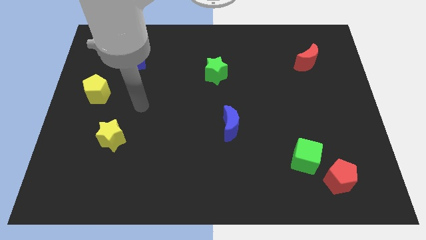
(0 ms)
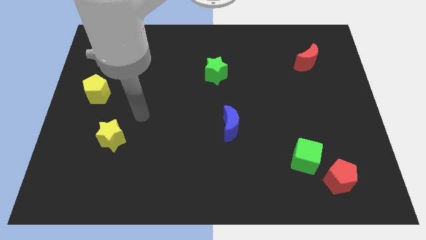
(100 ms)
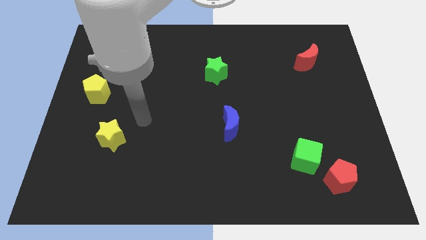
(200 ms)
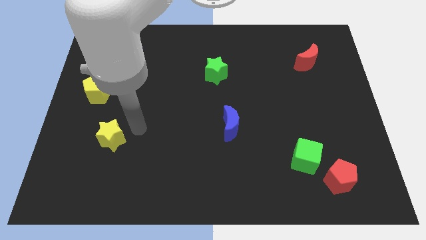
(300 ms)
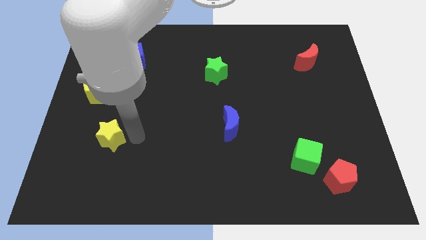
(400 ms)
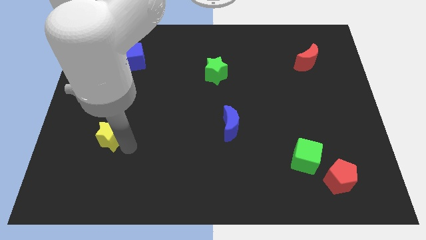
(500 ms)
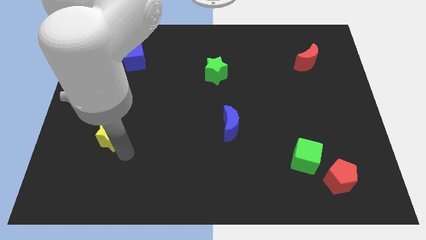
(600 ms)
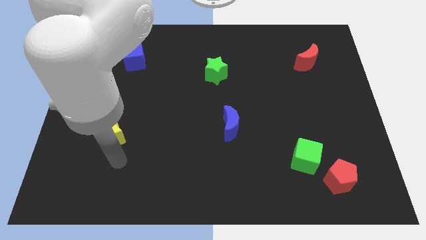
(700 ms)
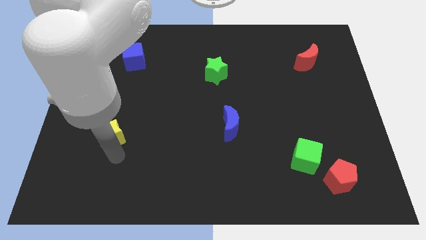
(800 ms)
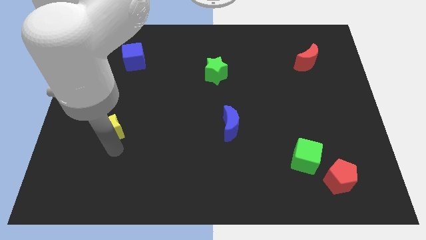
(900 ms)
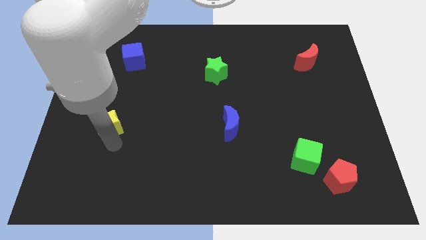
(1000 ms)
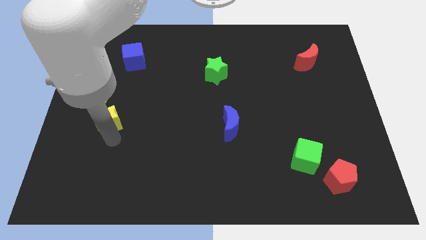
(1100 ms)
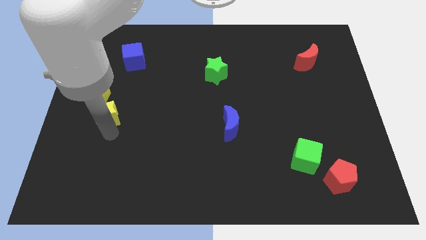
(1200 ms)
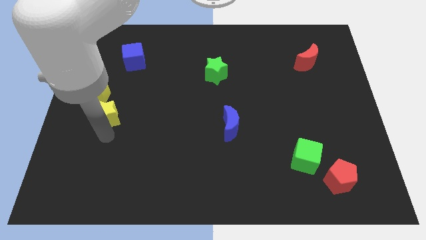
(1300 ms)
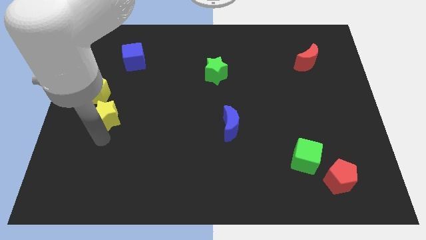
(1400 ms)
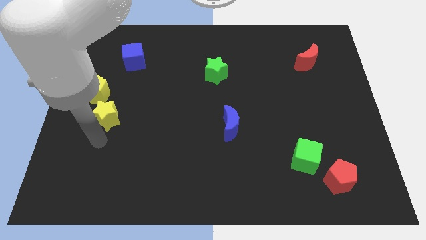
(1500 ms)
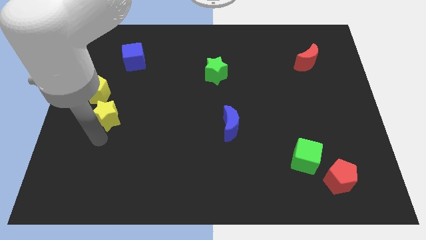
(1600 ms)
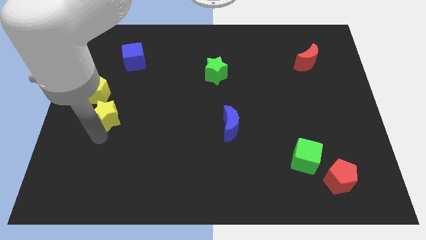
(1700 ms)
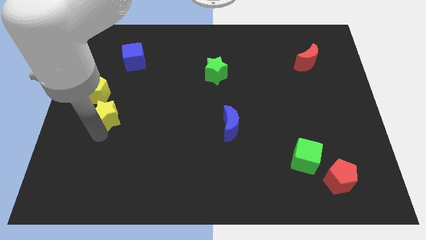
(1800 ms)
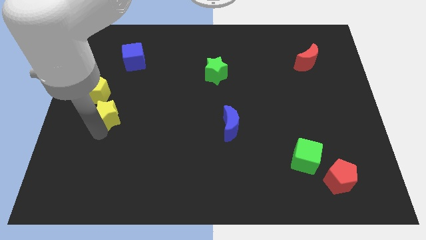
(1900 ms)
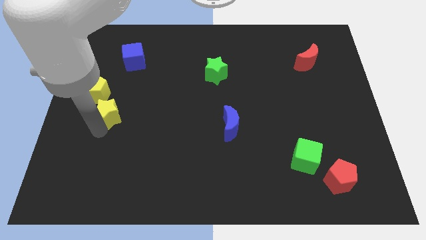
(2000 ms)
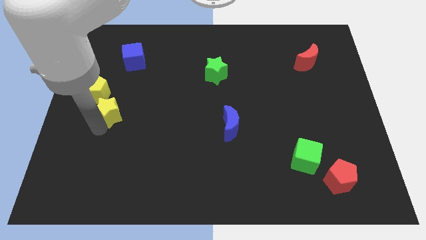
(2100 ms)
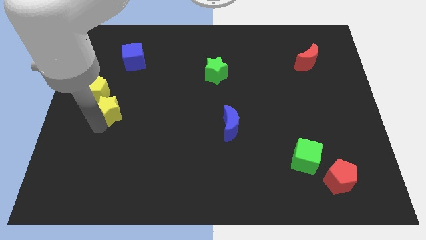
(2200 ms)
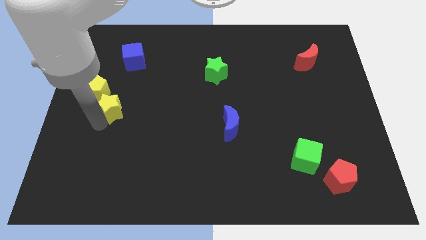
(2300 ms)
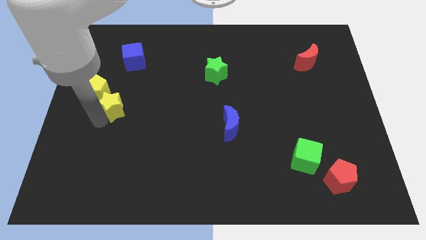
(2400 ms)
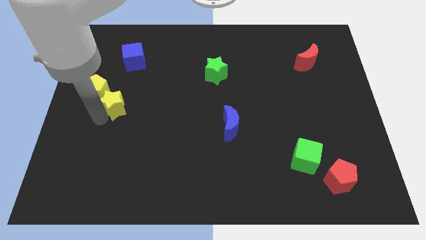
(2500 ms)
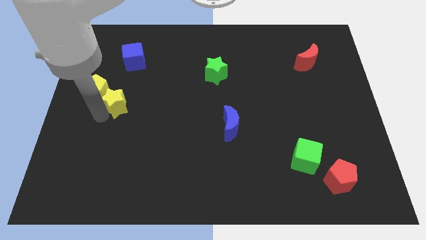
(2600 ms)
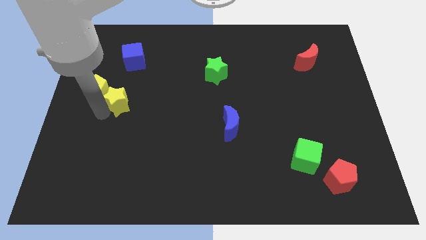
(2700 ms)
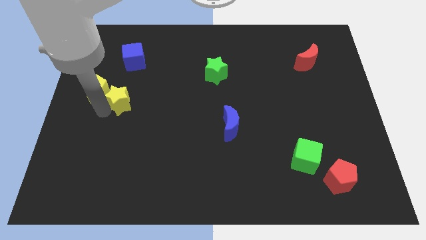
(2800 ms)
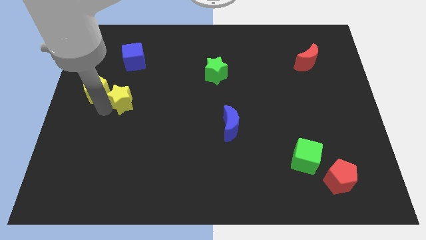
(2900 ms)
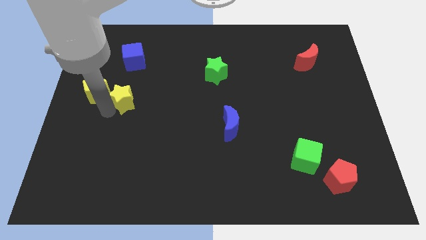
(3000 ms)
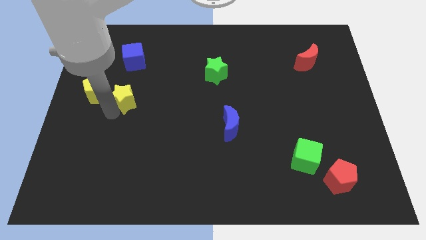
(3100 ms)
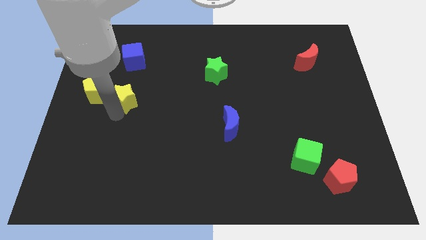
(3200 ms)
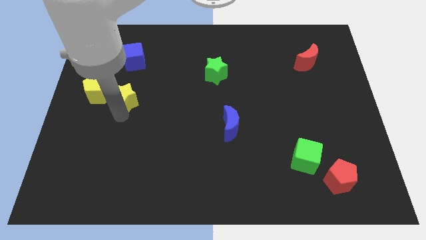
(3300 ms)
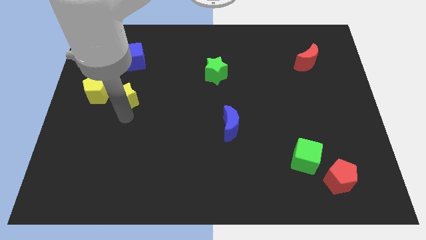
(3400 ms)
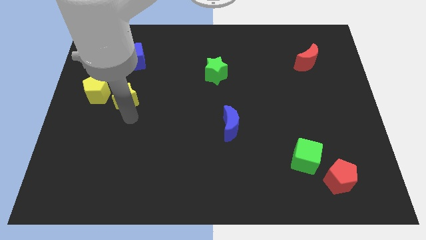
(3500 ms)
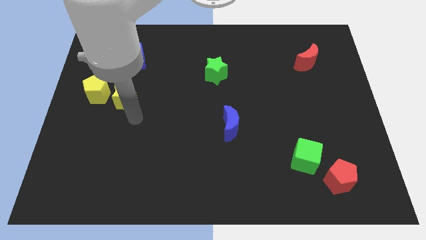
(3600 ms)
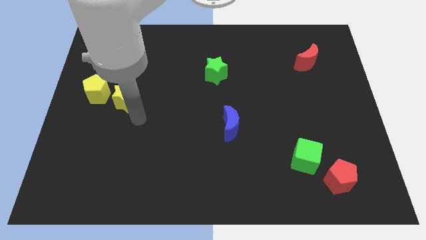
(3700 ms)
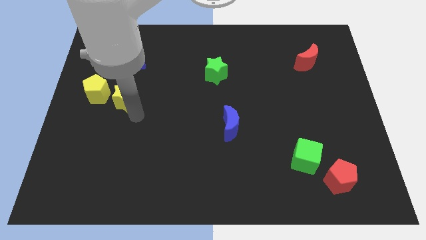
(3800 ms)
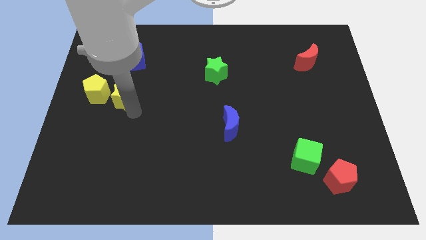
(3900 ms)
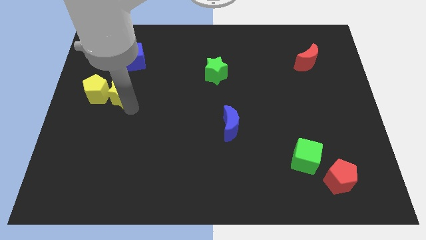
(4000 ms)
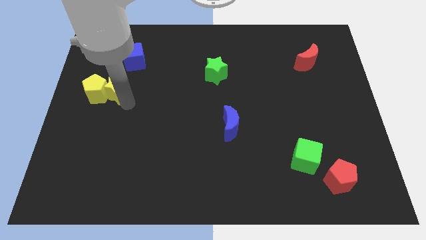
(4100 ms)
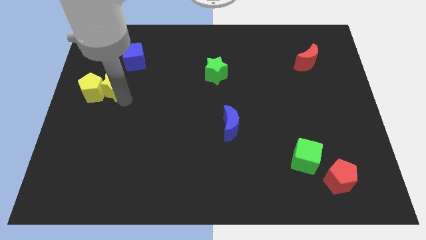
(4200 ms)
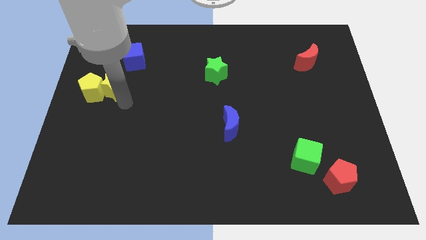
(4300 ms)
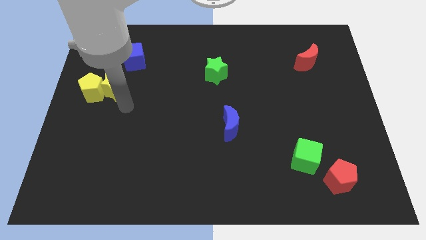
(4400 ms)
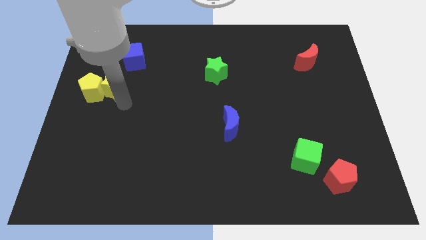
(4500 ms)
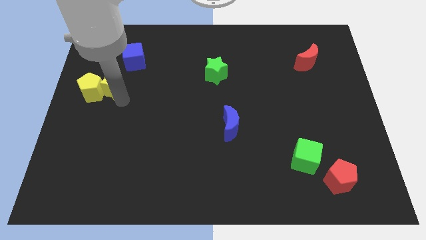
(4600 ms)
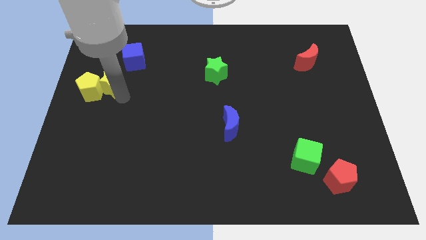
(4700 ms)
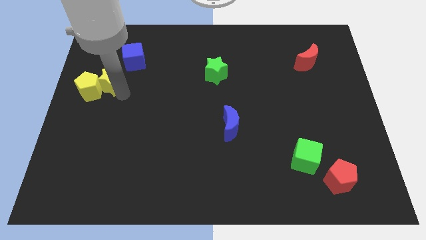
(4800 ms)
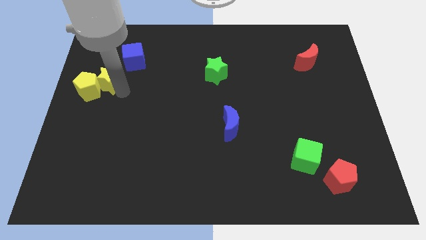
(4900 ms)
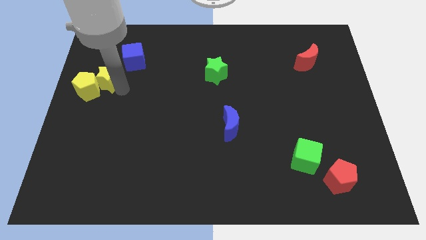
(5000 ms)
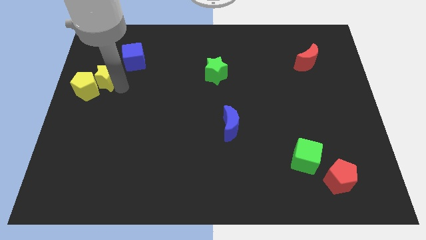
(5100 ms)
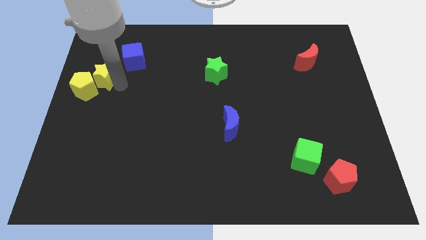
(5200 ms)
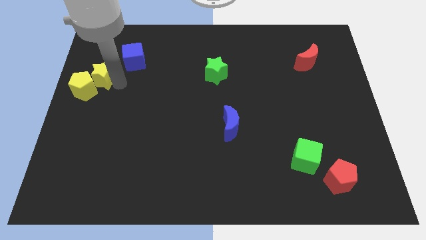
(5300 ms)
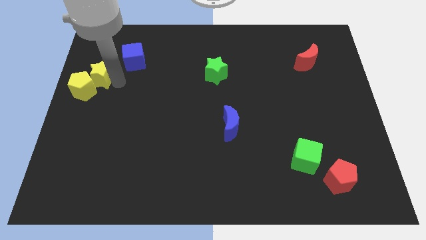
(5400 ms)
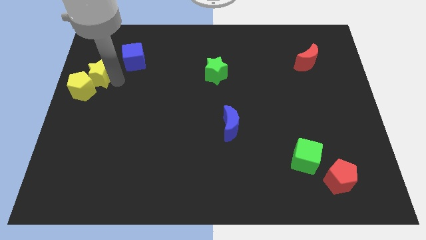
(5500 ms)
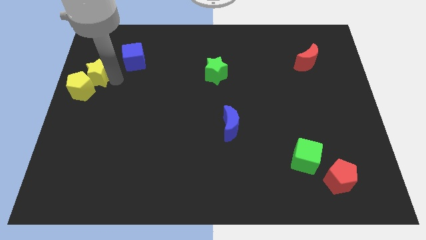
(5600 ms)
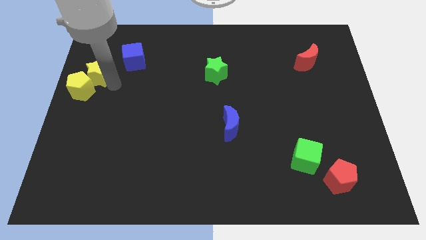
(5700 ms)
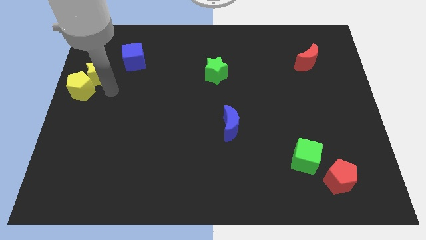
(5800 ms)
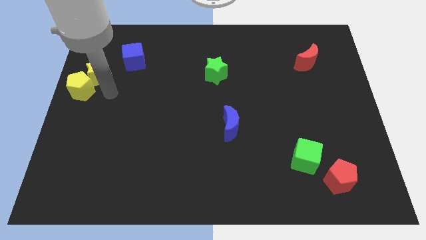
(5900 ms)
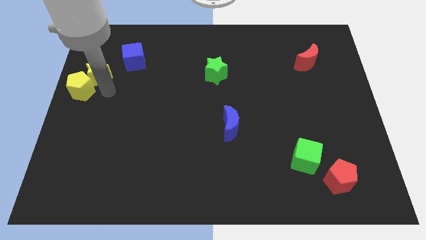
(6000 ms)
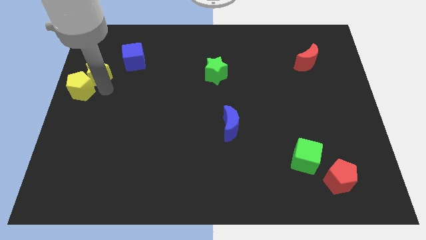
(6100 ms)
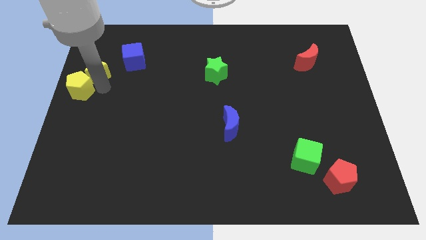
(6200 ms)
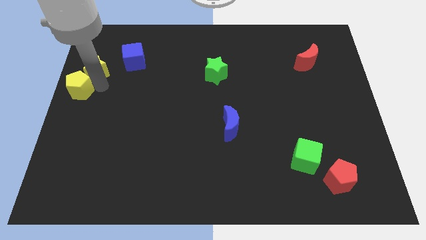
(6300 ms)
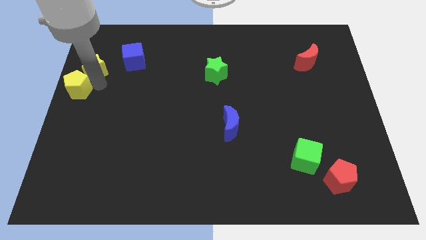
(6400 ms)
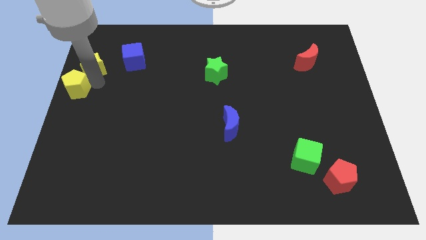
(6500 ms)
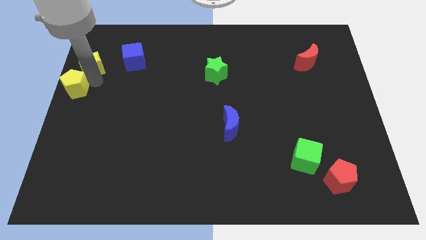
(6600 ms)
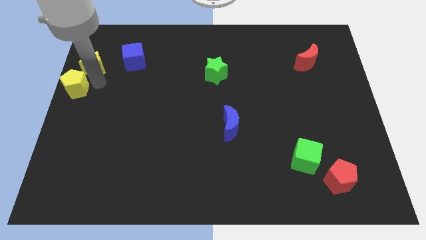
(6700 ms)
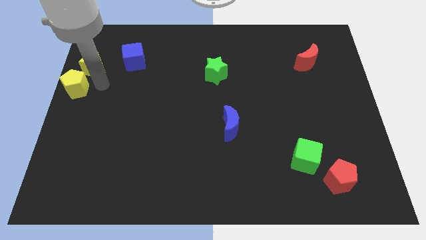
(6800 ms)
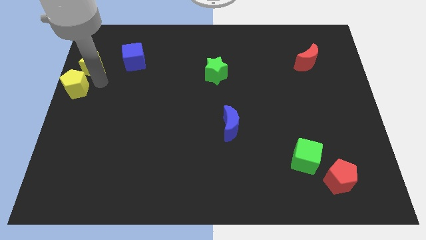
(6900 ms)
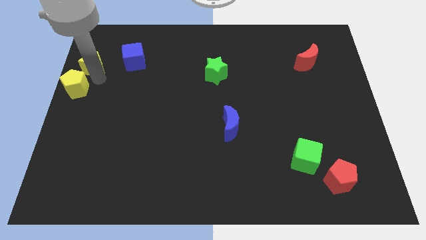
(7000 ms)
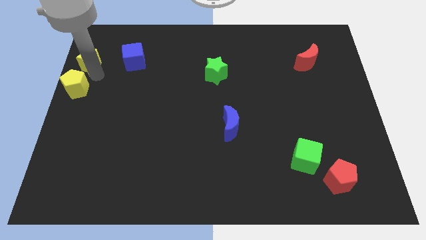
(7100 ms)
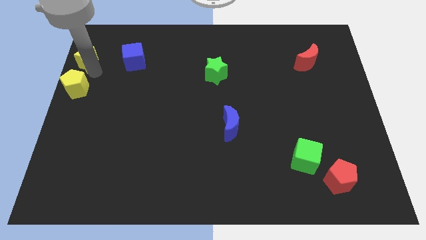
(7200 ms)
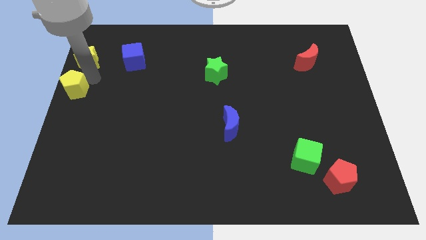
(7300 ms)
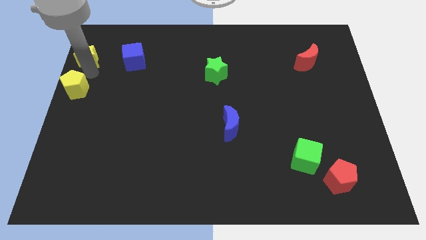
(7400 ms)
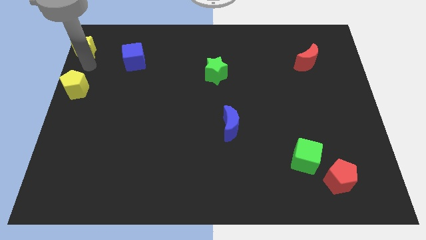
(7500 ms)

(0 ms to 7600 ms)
slide the yellow star to the top left of the board
